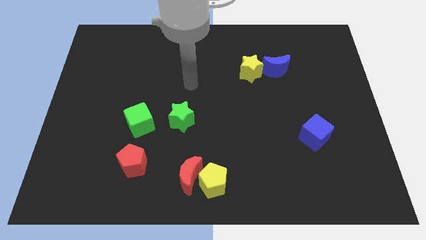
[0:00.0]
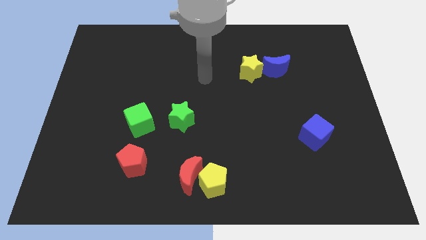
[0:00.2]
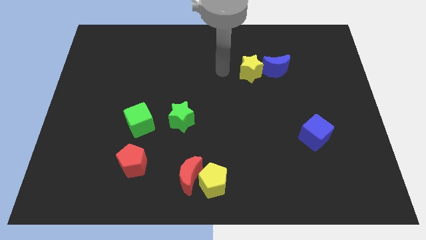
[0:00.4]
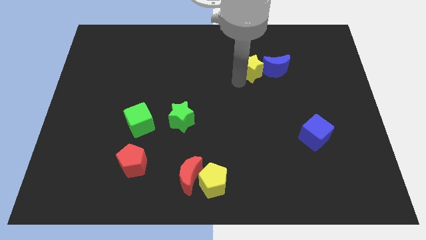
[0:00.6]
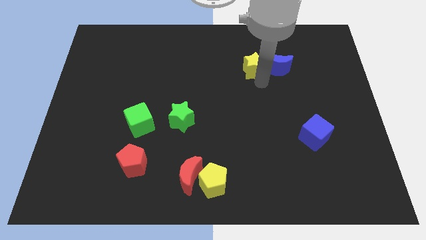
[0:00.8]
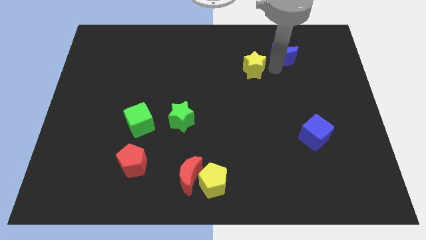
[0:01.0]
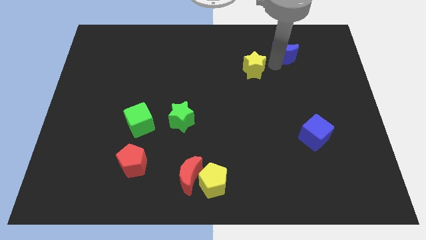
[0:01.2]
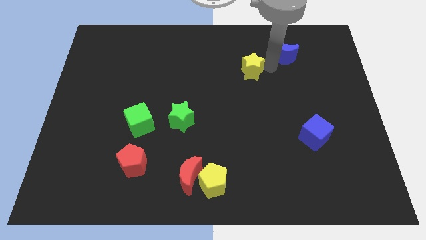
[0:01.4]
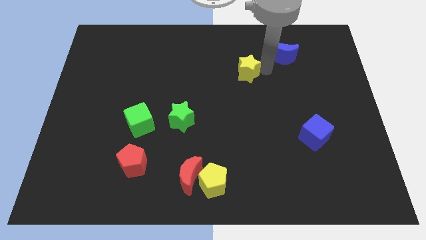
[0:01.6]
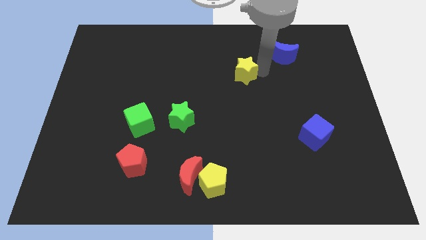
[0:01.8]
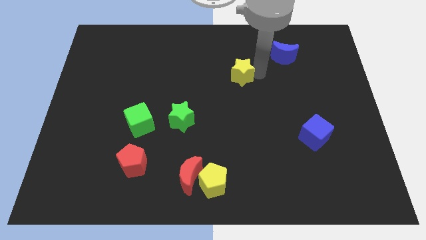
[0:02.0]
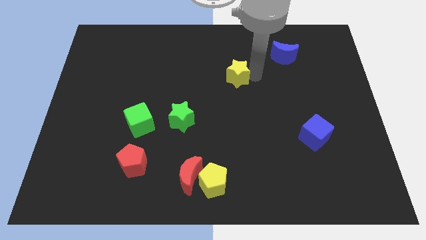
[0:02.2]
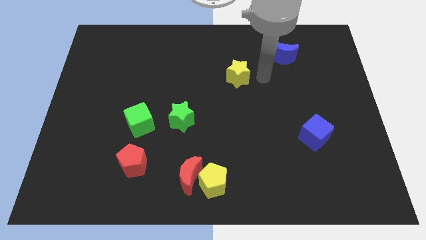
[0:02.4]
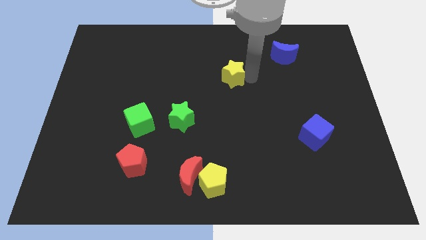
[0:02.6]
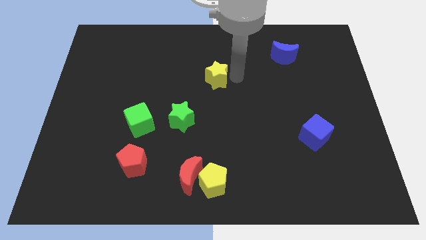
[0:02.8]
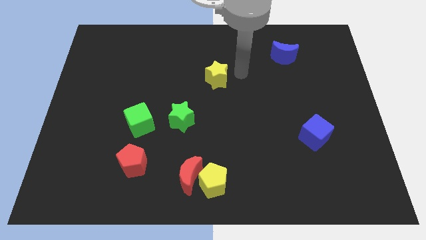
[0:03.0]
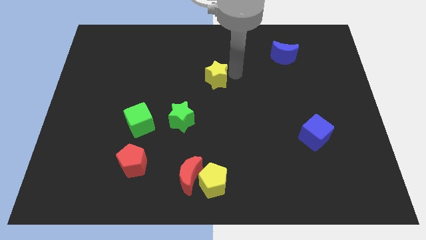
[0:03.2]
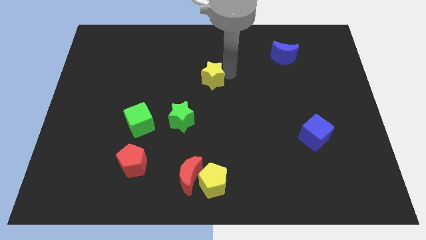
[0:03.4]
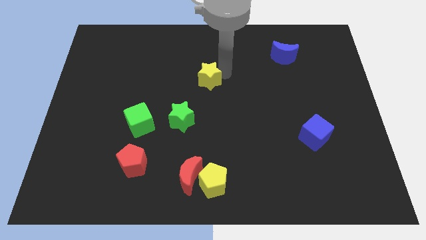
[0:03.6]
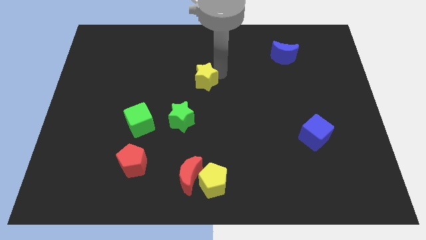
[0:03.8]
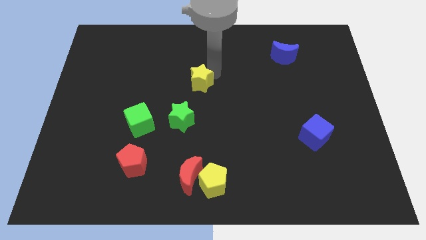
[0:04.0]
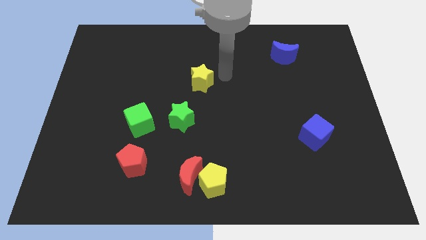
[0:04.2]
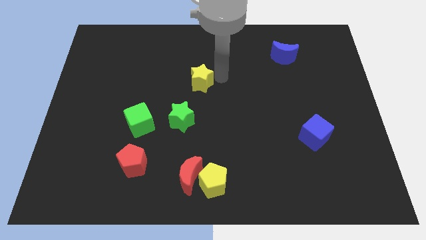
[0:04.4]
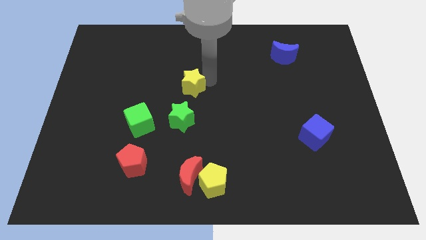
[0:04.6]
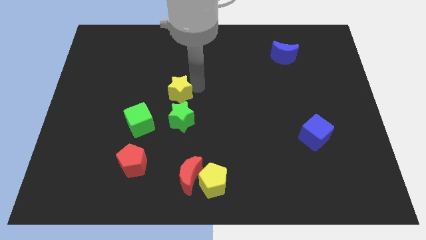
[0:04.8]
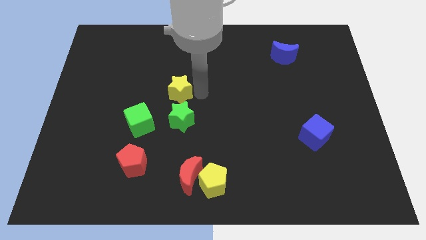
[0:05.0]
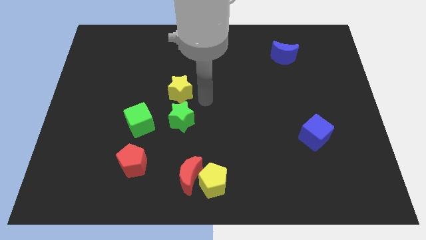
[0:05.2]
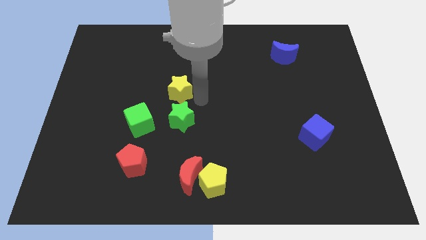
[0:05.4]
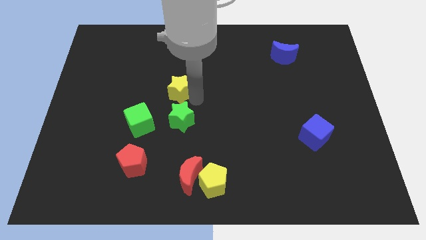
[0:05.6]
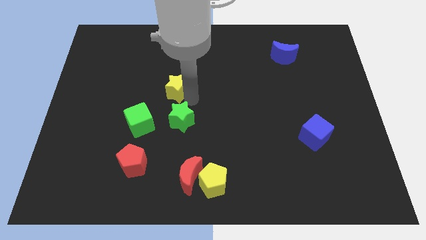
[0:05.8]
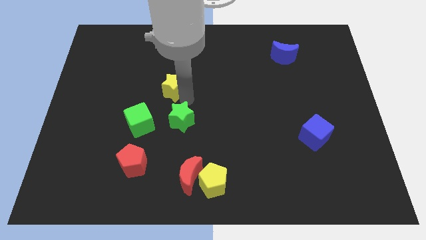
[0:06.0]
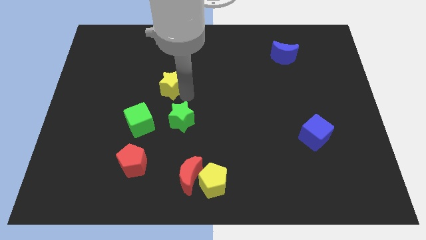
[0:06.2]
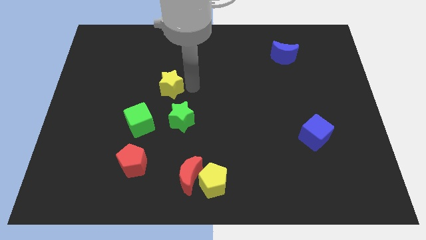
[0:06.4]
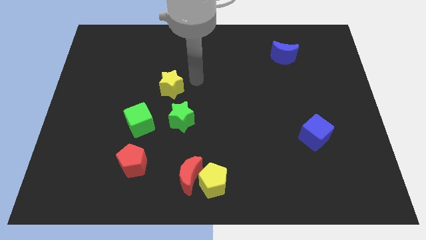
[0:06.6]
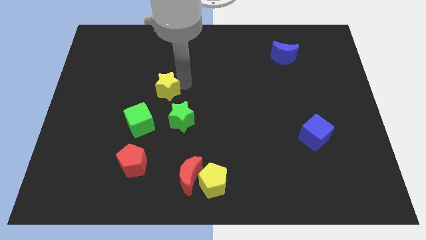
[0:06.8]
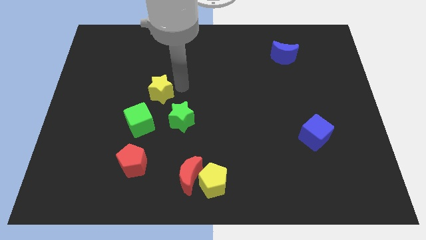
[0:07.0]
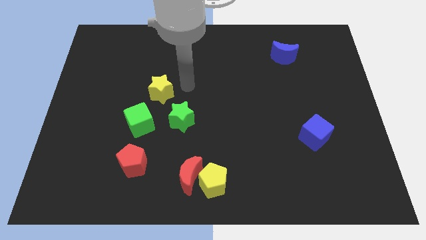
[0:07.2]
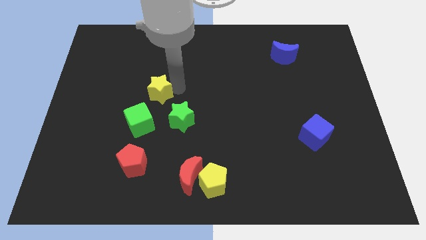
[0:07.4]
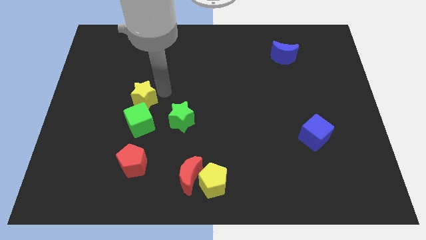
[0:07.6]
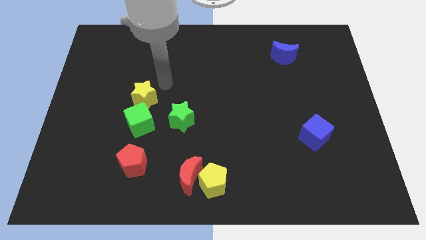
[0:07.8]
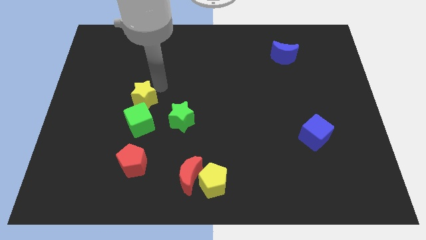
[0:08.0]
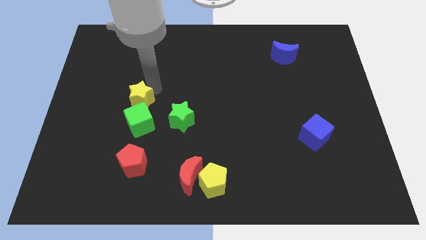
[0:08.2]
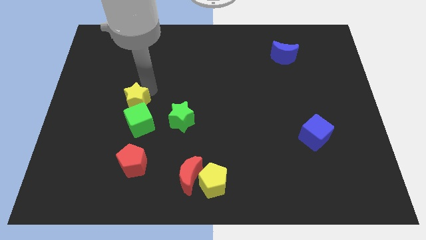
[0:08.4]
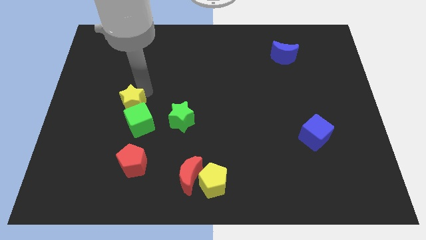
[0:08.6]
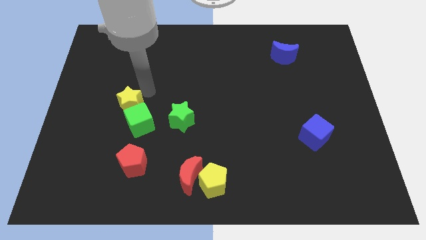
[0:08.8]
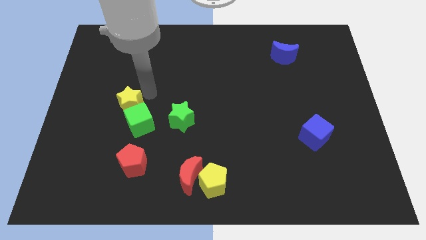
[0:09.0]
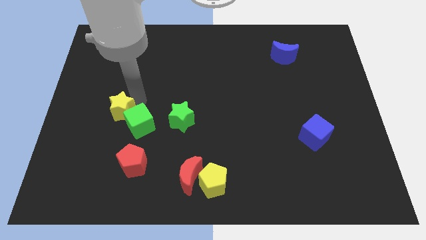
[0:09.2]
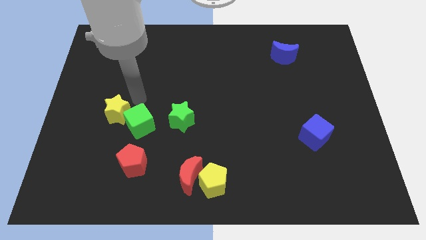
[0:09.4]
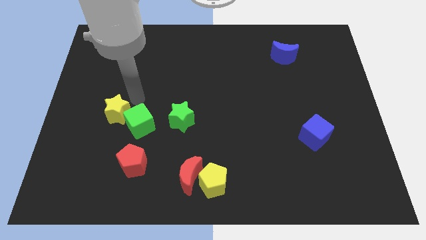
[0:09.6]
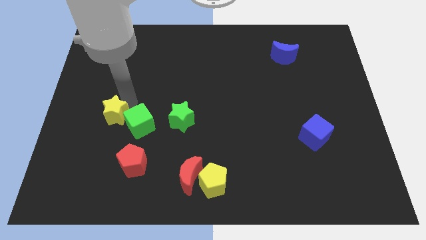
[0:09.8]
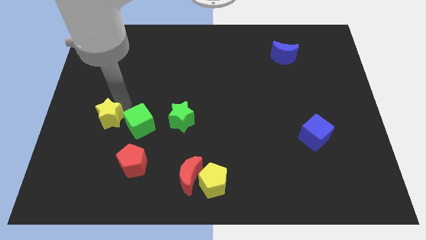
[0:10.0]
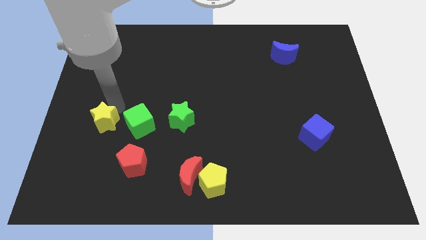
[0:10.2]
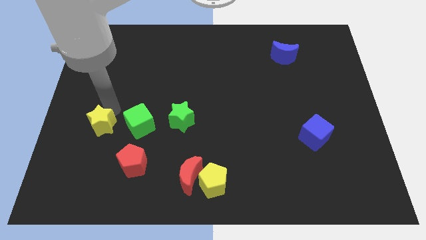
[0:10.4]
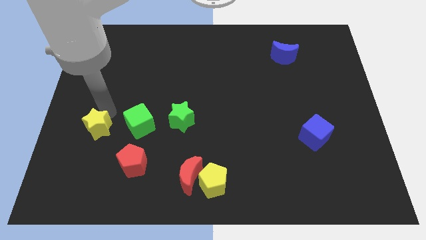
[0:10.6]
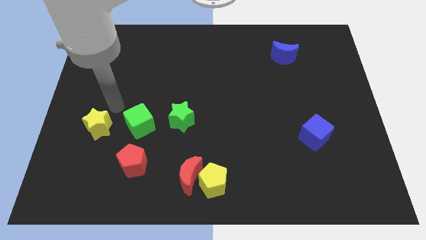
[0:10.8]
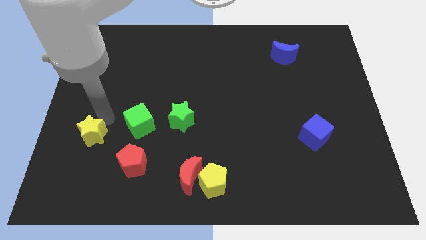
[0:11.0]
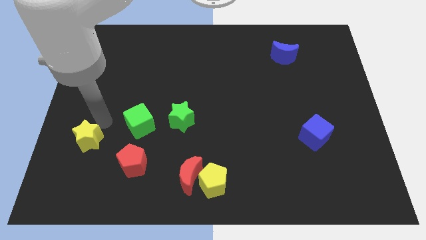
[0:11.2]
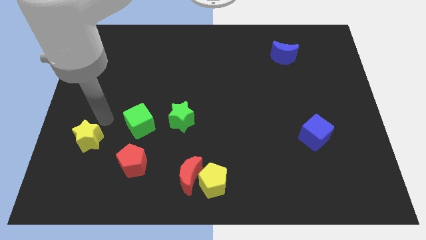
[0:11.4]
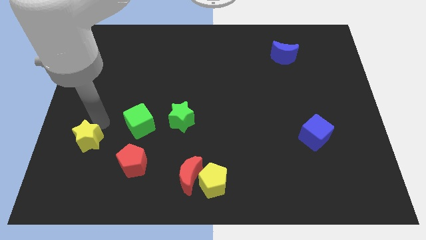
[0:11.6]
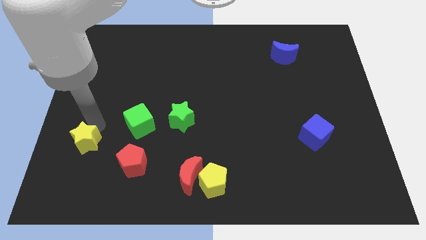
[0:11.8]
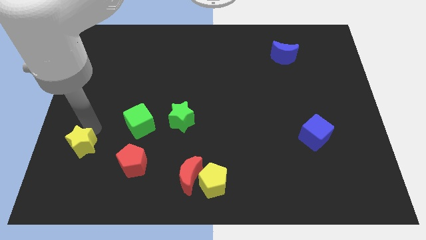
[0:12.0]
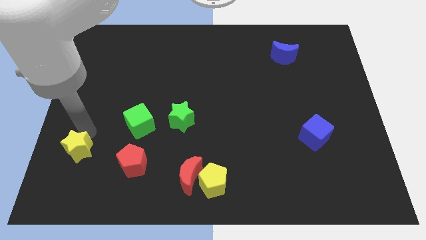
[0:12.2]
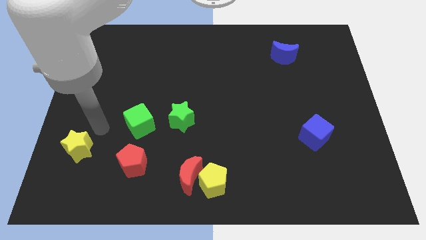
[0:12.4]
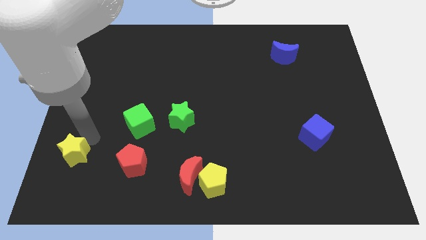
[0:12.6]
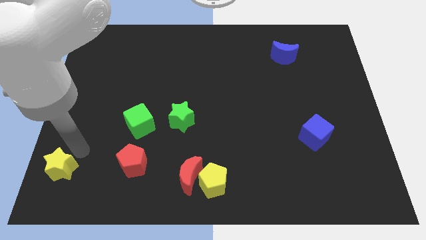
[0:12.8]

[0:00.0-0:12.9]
put the yellow star to the bottom left

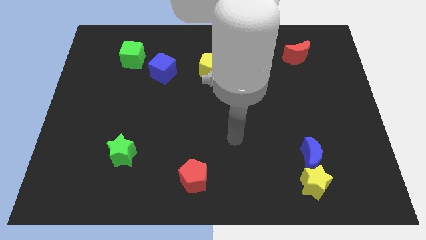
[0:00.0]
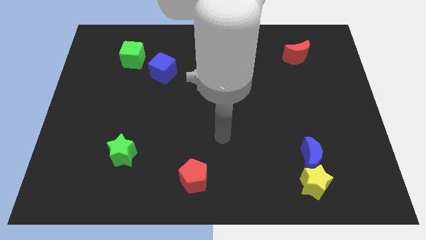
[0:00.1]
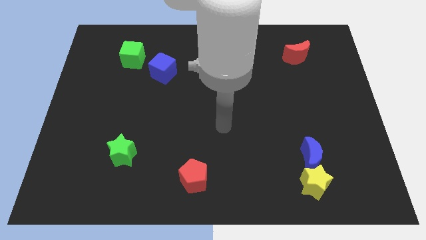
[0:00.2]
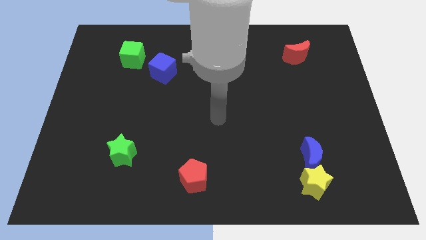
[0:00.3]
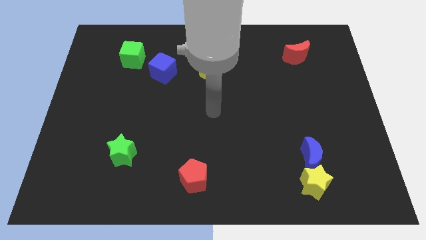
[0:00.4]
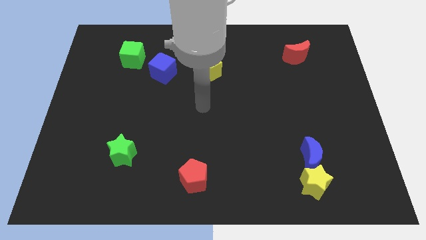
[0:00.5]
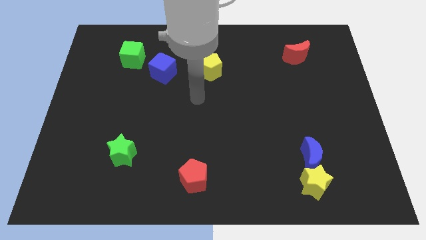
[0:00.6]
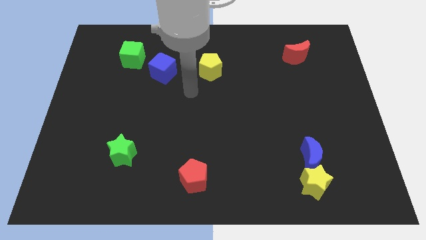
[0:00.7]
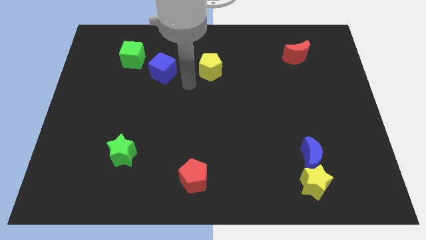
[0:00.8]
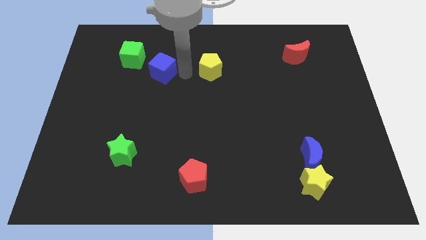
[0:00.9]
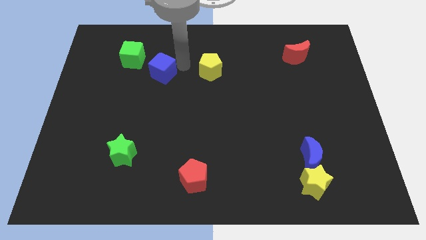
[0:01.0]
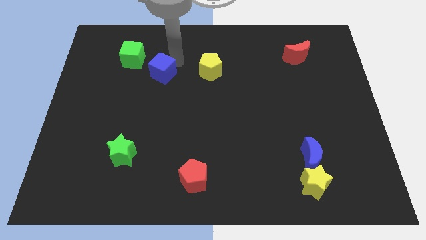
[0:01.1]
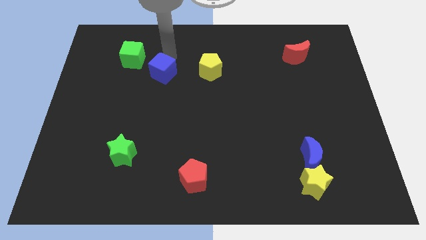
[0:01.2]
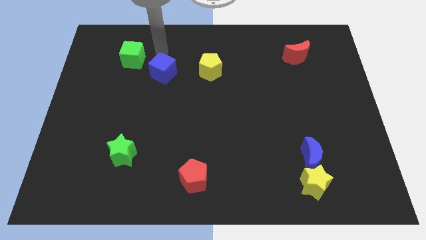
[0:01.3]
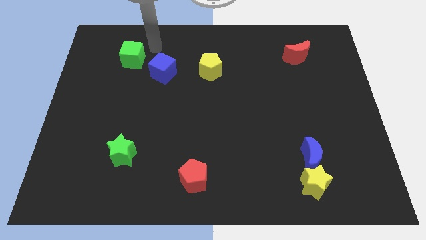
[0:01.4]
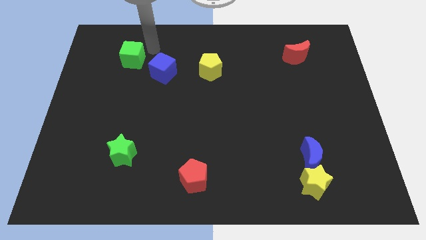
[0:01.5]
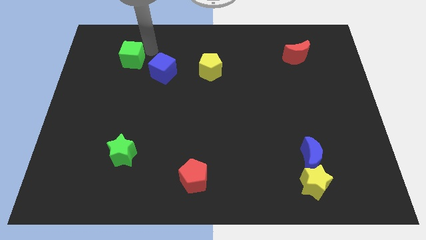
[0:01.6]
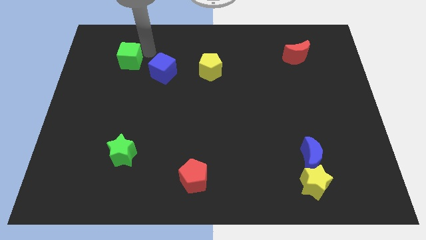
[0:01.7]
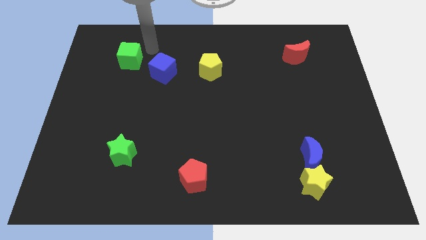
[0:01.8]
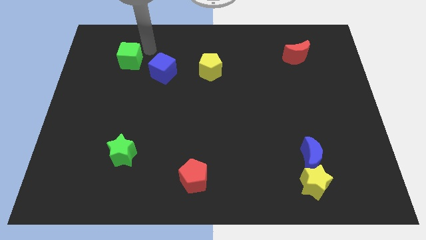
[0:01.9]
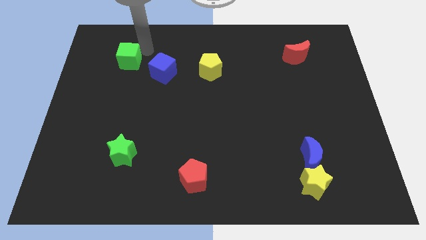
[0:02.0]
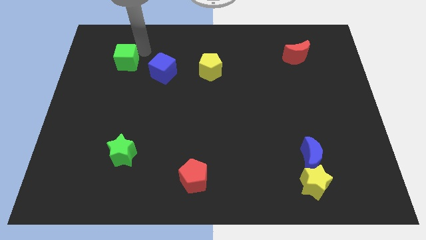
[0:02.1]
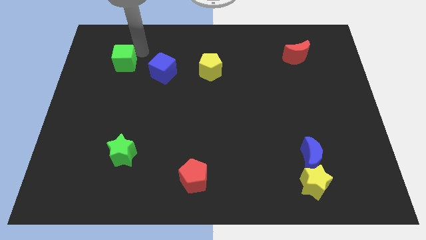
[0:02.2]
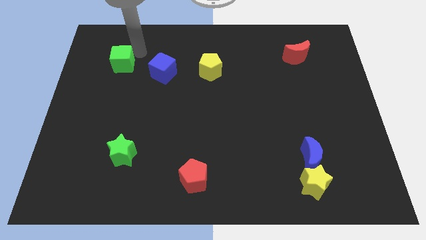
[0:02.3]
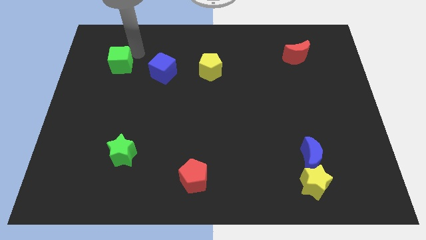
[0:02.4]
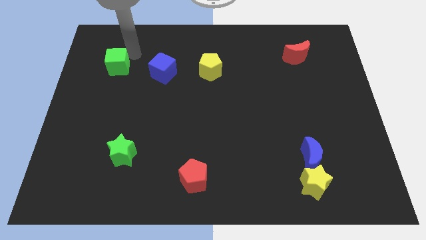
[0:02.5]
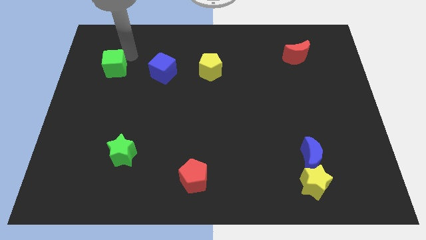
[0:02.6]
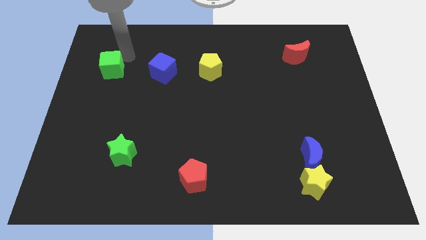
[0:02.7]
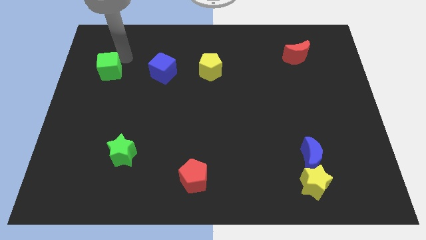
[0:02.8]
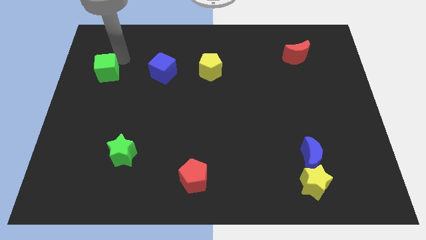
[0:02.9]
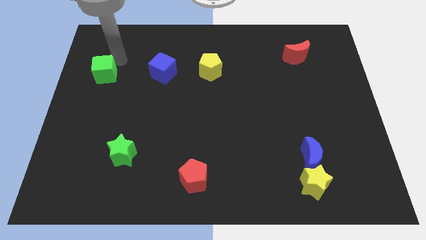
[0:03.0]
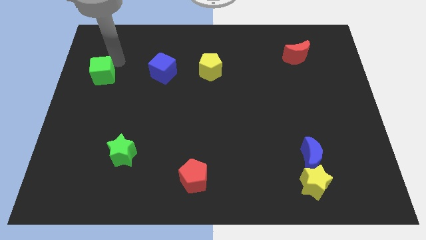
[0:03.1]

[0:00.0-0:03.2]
move the green cube to the left side of the board
